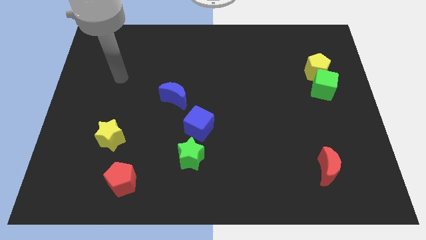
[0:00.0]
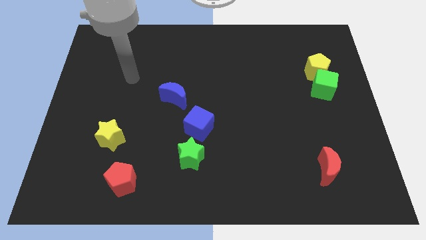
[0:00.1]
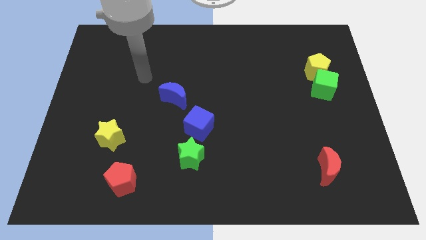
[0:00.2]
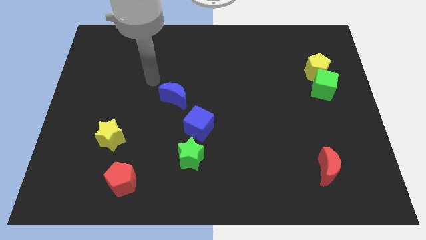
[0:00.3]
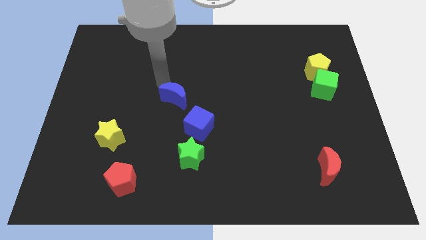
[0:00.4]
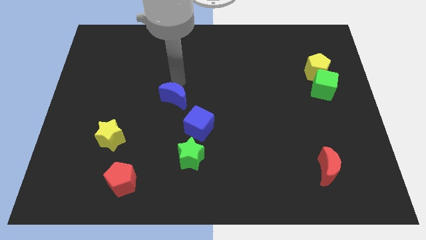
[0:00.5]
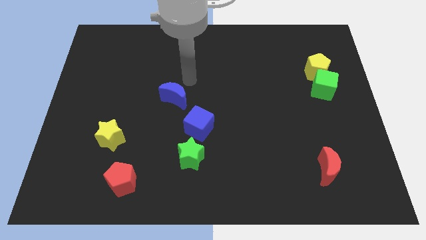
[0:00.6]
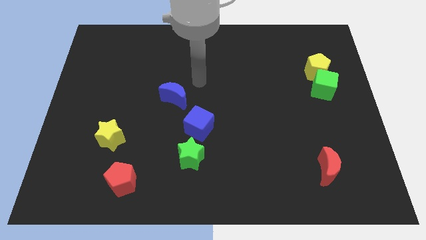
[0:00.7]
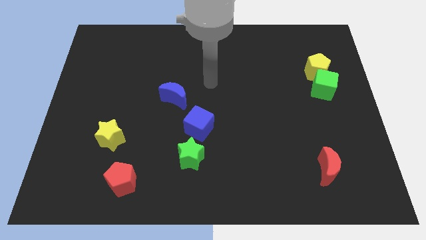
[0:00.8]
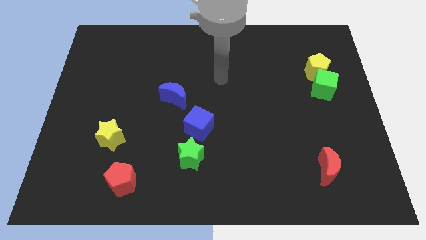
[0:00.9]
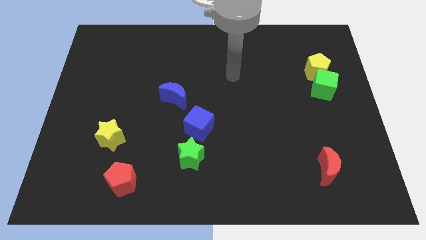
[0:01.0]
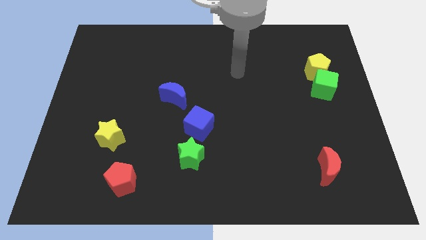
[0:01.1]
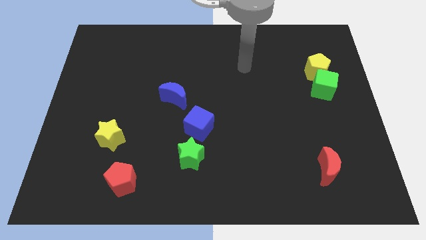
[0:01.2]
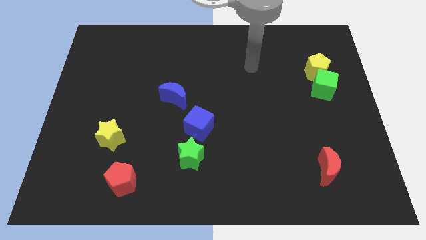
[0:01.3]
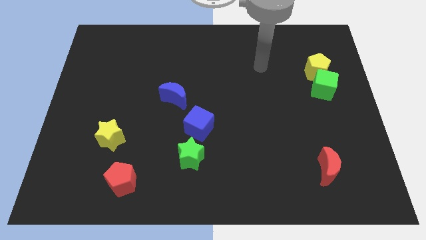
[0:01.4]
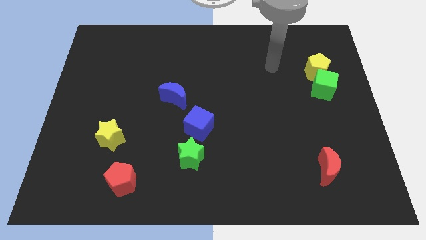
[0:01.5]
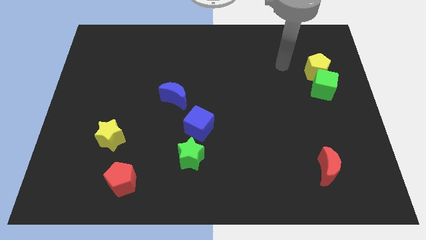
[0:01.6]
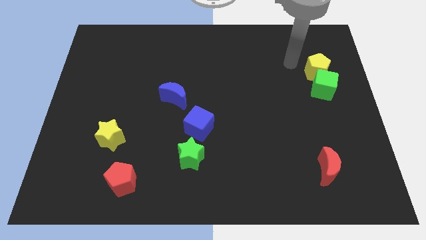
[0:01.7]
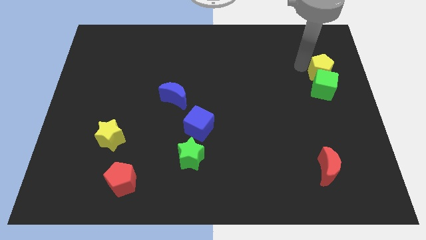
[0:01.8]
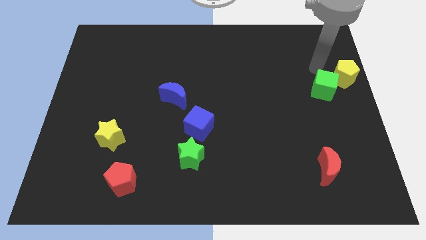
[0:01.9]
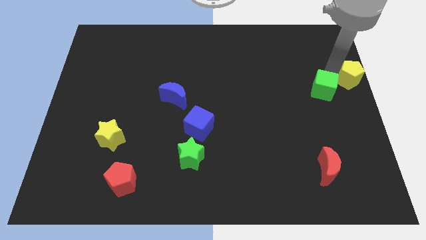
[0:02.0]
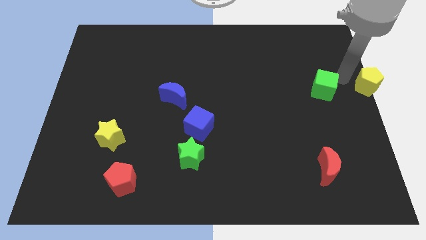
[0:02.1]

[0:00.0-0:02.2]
pull the green cube apart from the yellow pentagon

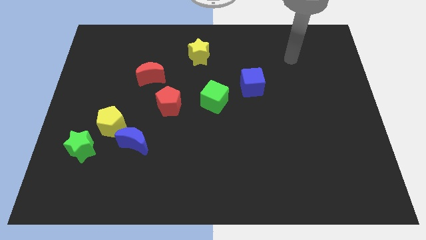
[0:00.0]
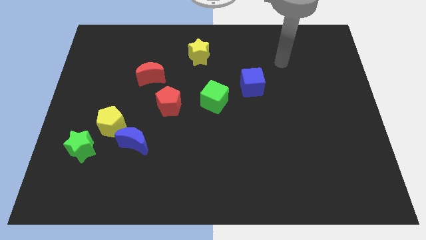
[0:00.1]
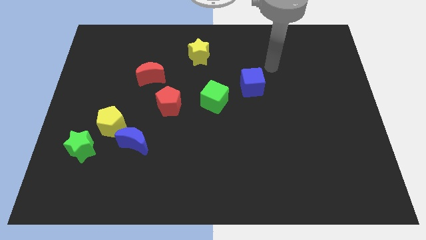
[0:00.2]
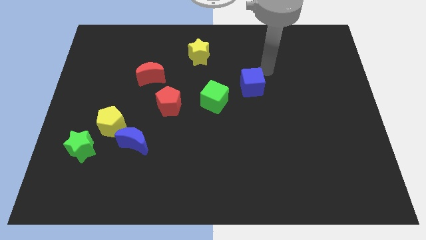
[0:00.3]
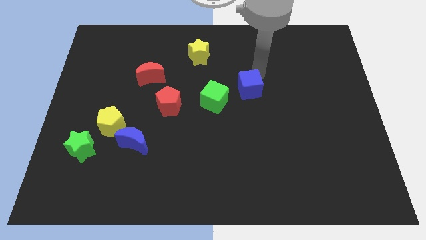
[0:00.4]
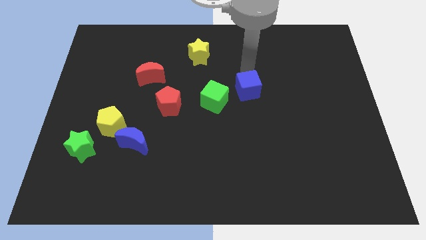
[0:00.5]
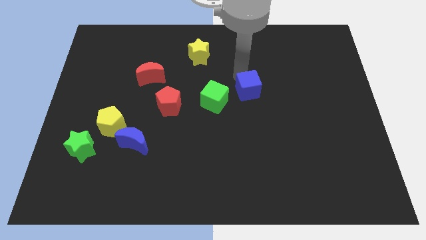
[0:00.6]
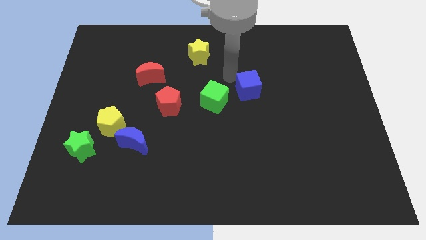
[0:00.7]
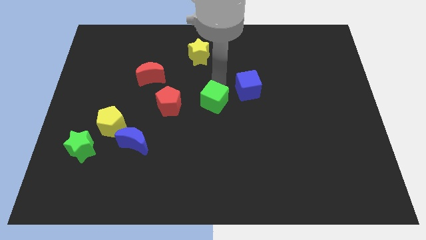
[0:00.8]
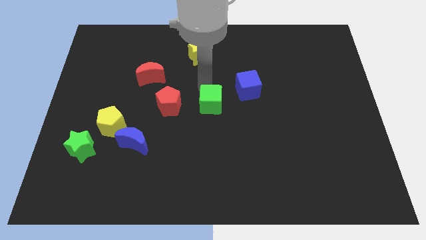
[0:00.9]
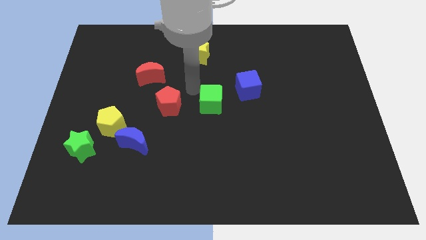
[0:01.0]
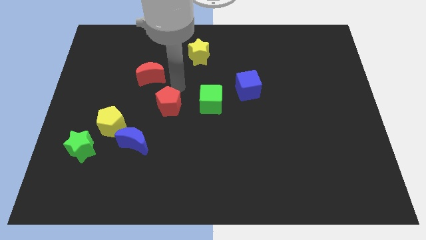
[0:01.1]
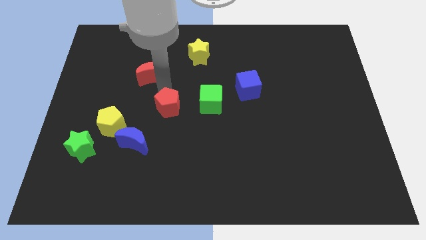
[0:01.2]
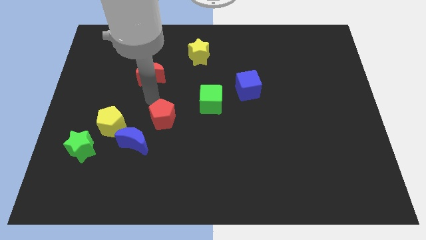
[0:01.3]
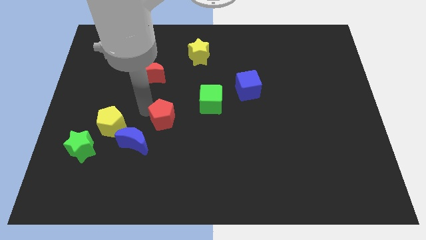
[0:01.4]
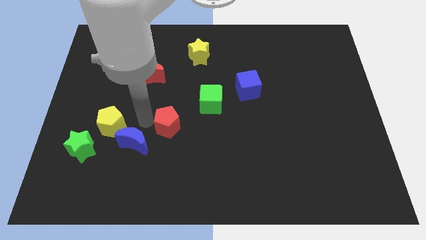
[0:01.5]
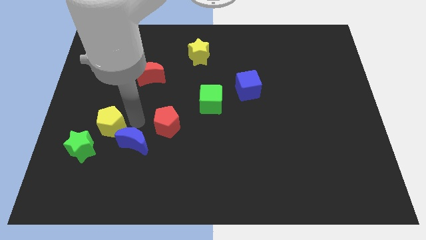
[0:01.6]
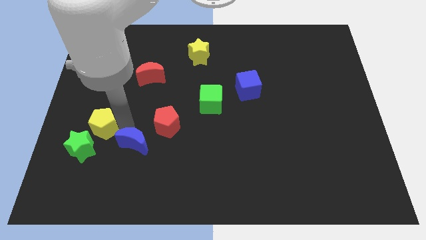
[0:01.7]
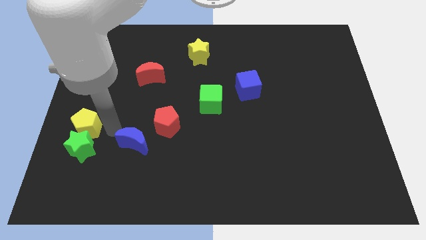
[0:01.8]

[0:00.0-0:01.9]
move the blue moon away from the yellow pentagon

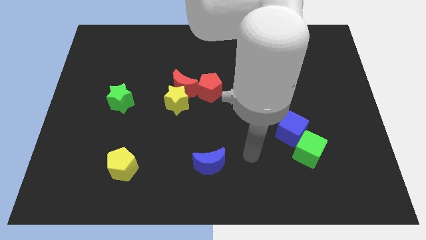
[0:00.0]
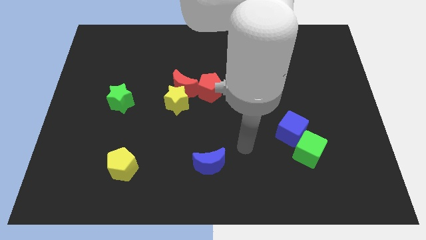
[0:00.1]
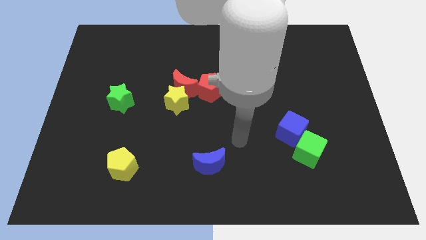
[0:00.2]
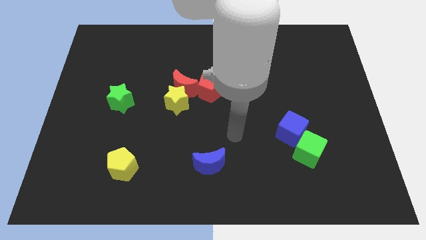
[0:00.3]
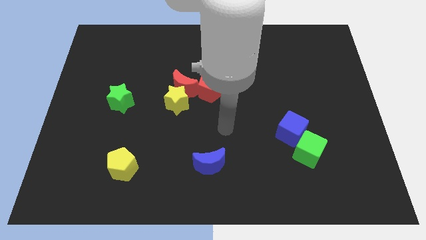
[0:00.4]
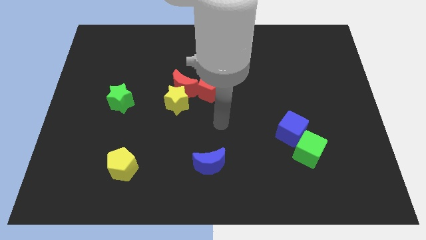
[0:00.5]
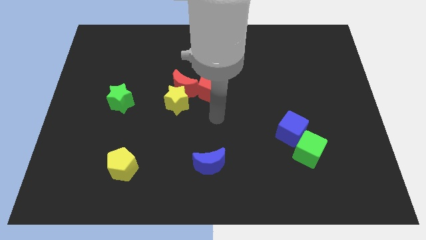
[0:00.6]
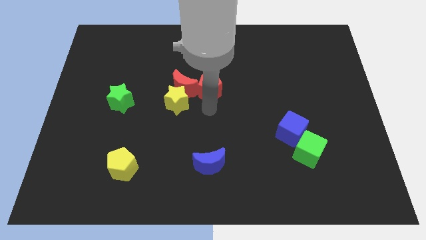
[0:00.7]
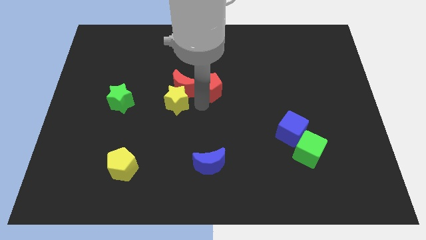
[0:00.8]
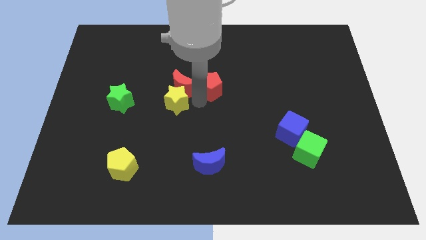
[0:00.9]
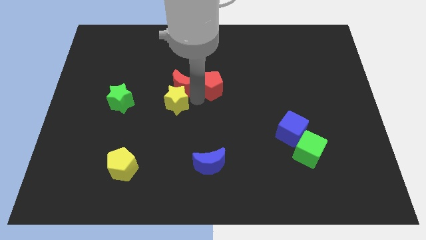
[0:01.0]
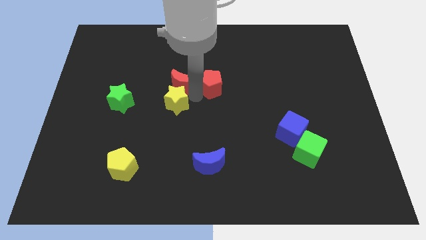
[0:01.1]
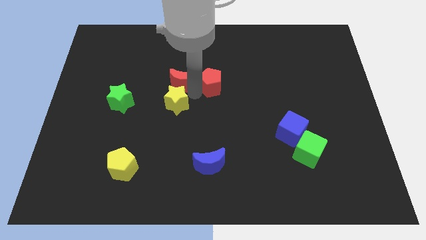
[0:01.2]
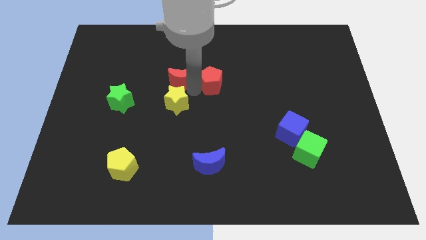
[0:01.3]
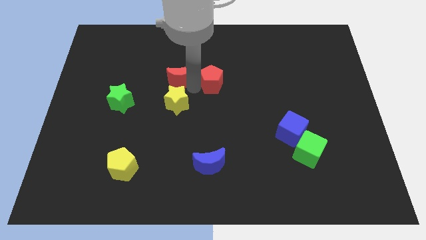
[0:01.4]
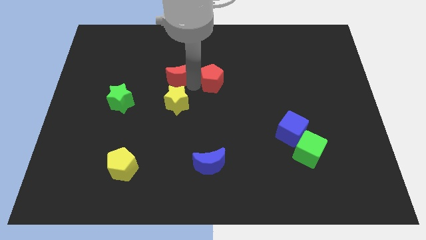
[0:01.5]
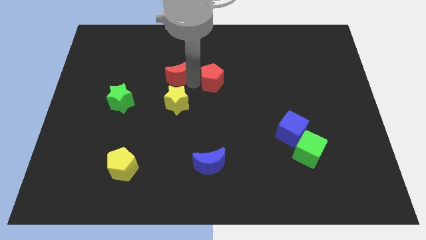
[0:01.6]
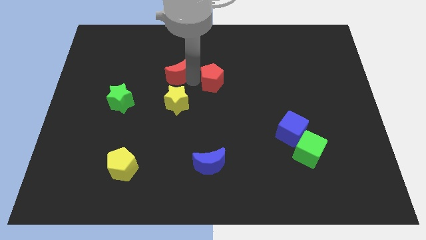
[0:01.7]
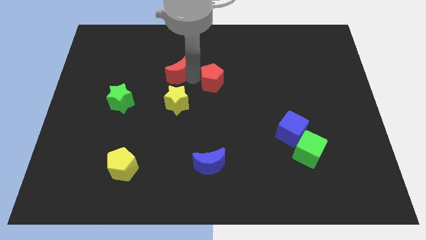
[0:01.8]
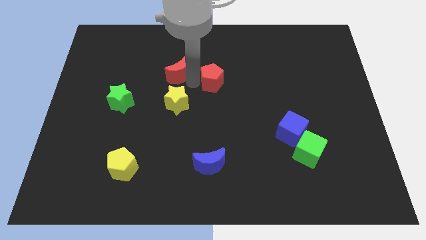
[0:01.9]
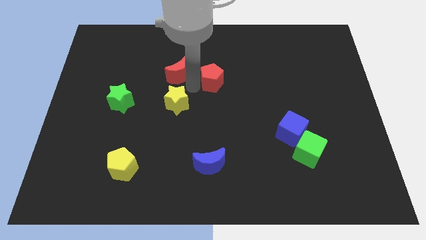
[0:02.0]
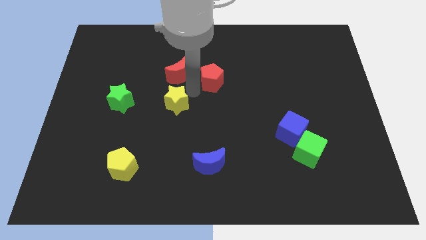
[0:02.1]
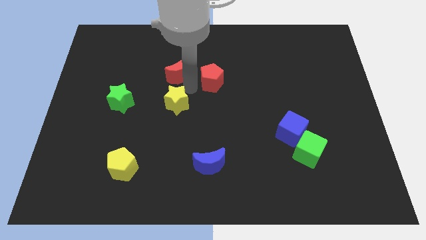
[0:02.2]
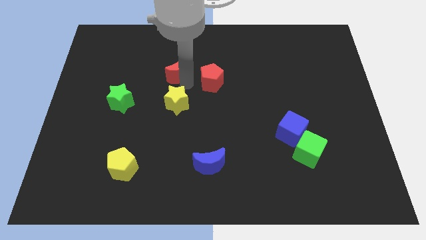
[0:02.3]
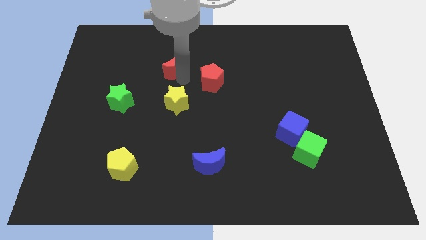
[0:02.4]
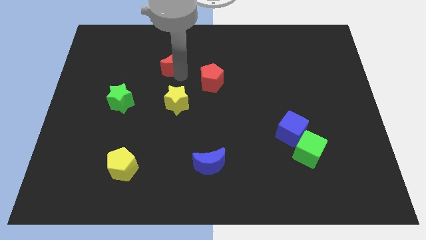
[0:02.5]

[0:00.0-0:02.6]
move the red moon away from the yellow star and red pentagon

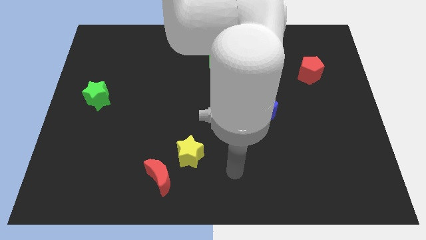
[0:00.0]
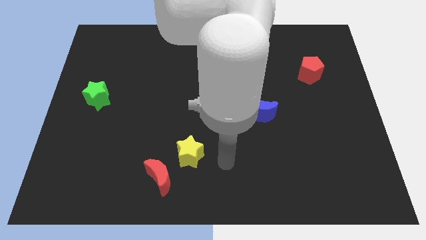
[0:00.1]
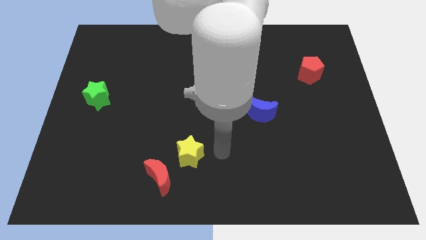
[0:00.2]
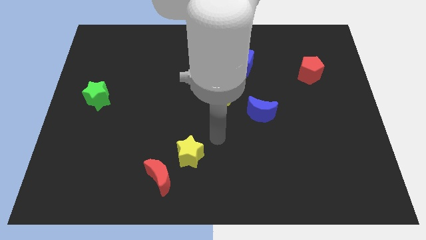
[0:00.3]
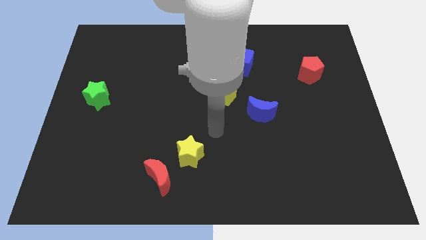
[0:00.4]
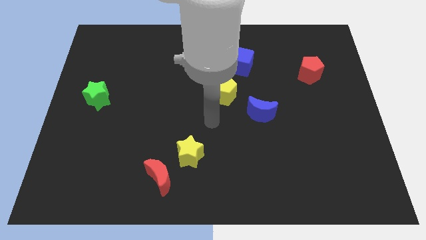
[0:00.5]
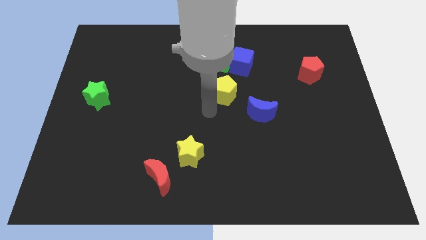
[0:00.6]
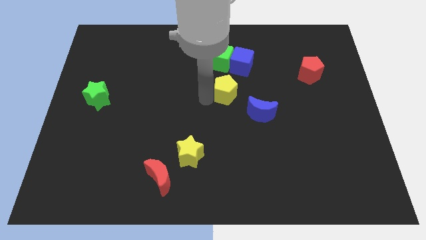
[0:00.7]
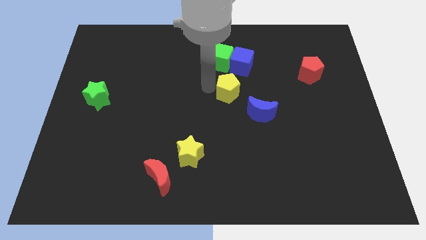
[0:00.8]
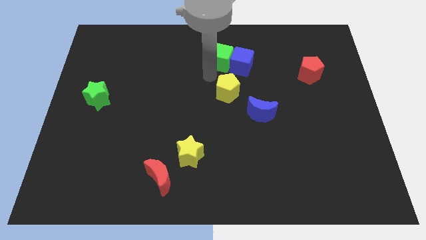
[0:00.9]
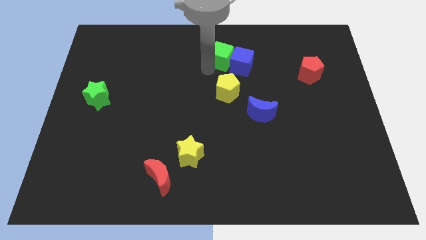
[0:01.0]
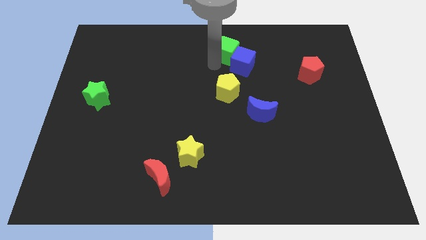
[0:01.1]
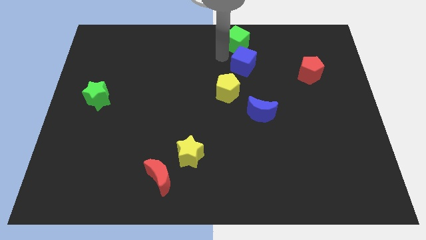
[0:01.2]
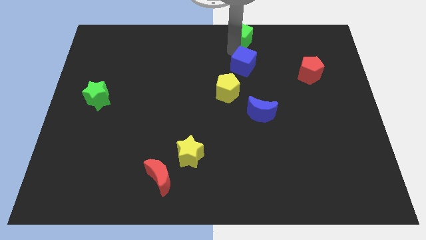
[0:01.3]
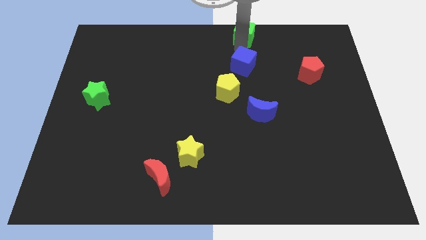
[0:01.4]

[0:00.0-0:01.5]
pull the blue cube apart from the green cube

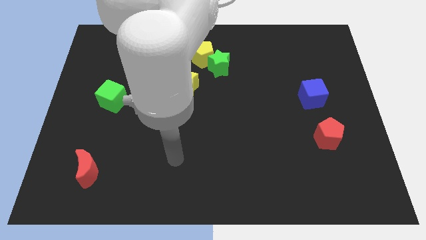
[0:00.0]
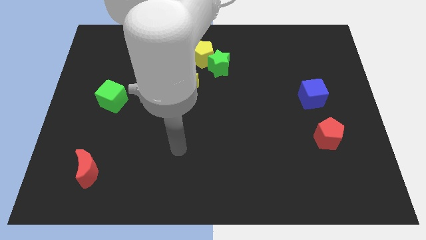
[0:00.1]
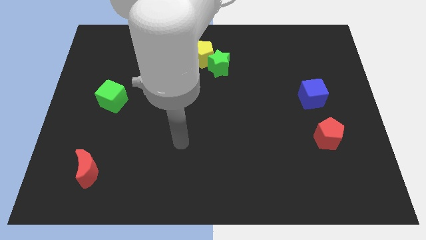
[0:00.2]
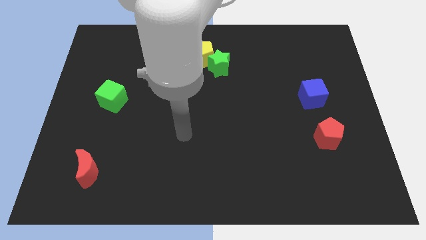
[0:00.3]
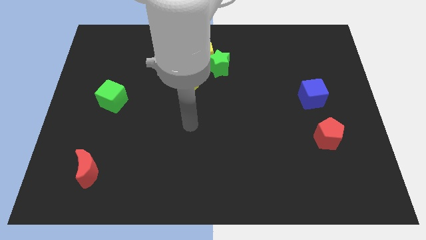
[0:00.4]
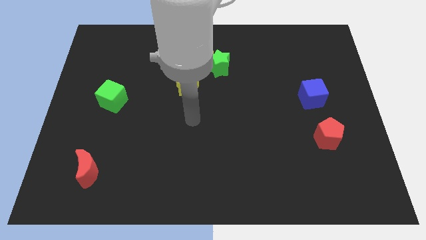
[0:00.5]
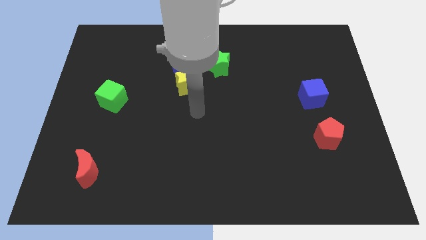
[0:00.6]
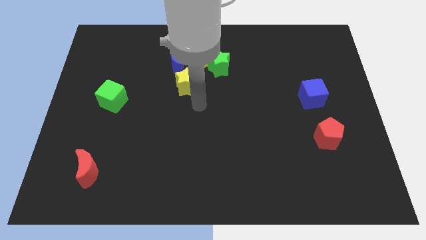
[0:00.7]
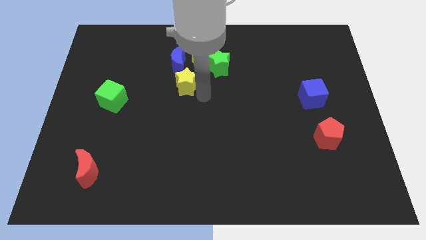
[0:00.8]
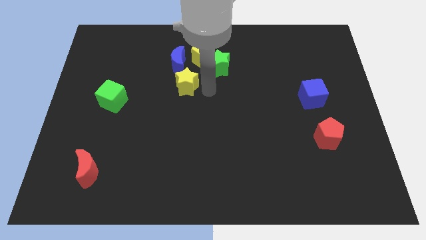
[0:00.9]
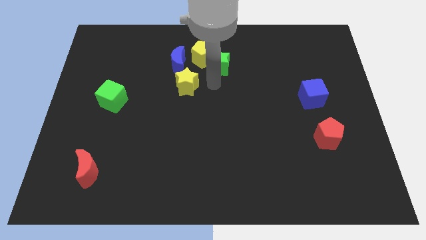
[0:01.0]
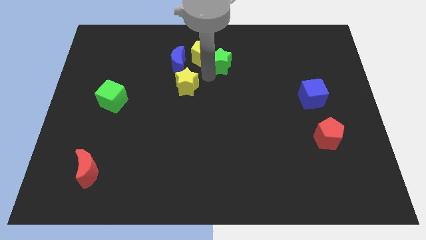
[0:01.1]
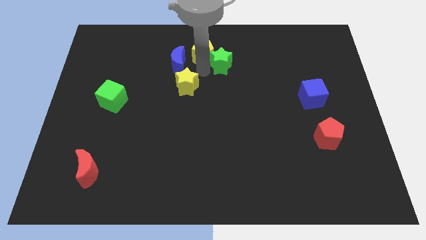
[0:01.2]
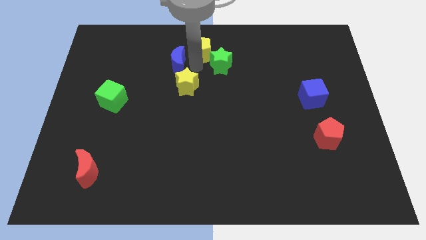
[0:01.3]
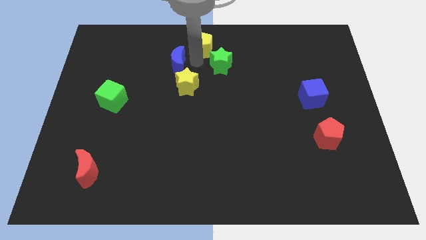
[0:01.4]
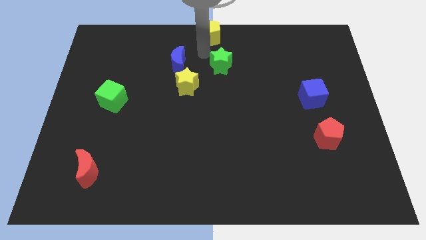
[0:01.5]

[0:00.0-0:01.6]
separate the green star from the yellow pentagon
